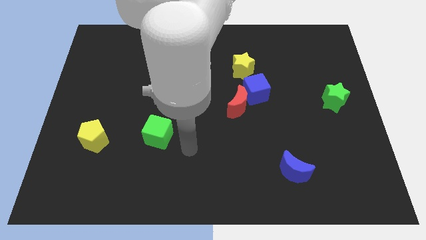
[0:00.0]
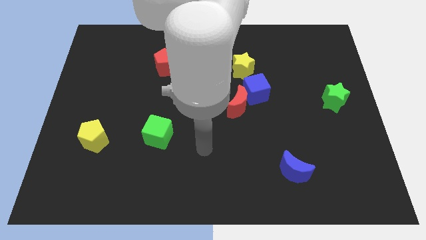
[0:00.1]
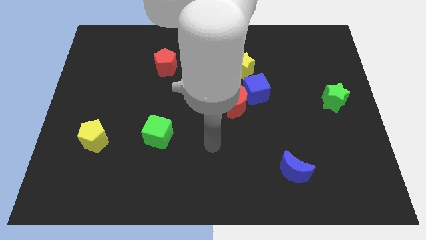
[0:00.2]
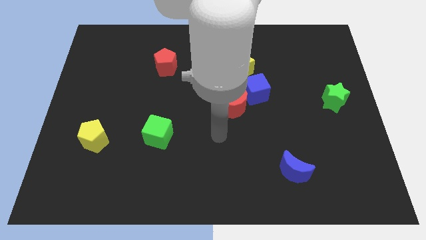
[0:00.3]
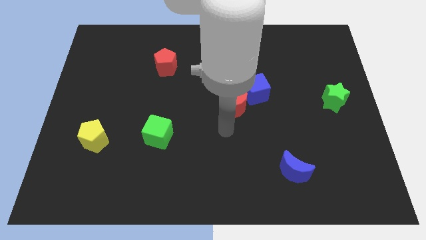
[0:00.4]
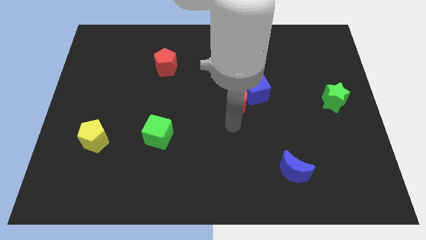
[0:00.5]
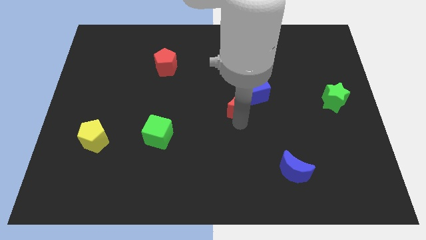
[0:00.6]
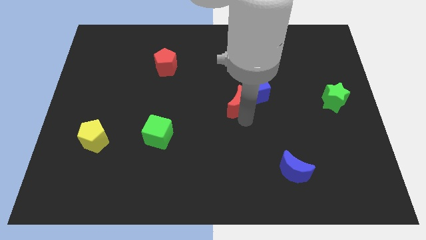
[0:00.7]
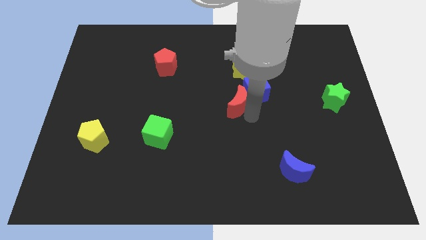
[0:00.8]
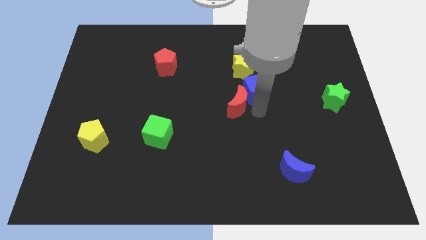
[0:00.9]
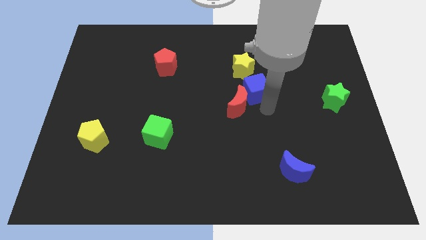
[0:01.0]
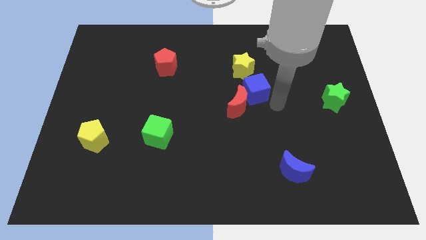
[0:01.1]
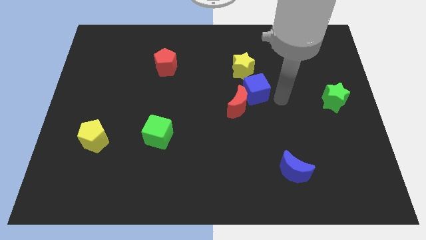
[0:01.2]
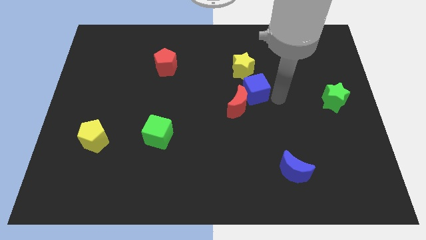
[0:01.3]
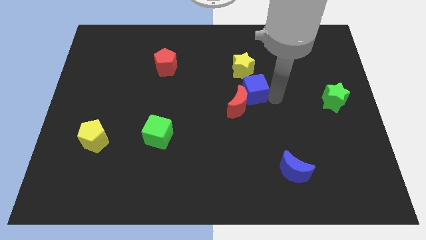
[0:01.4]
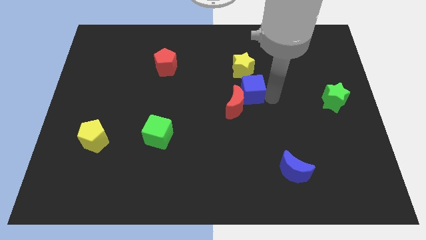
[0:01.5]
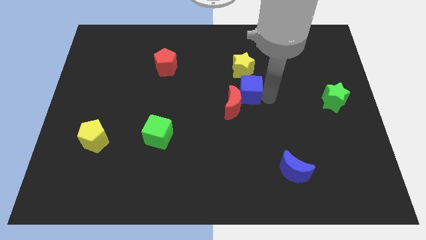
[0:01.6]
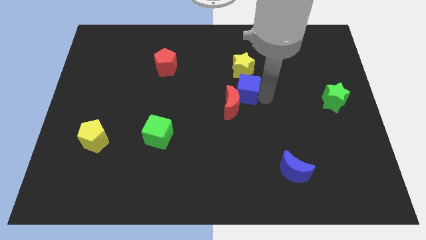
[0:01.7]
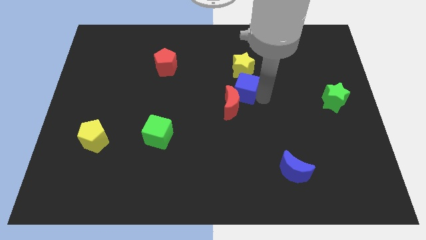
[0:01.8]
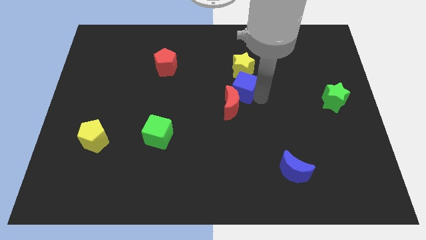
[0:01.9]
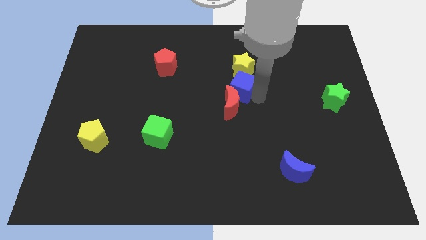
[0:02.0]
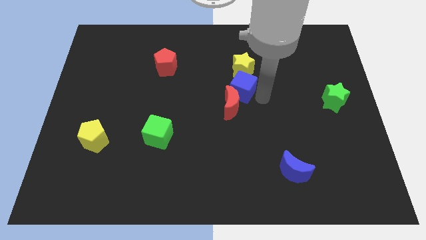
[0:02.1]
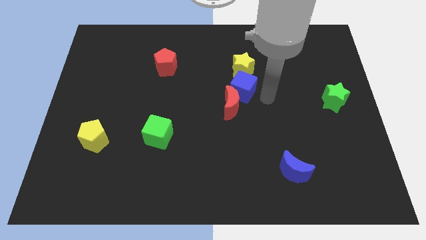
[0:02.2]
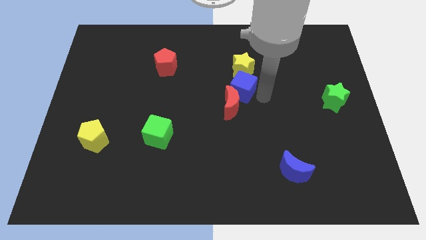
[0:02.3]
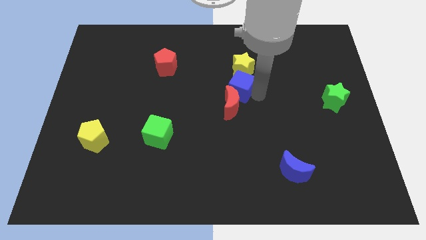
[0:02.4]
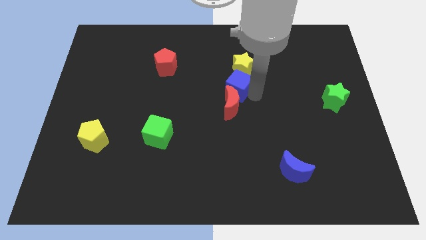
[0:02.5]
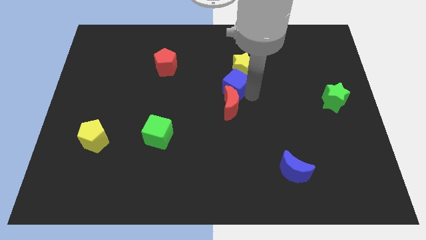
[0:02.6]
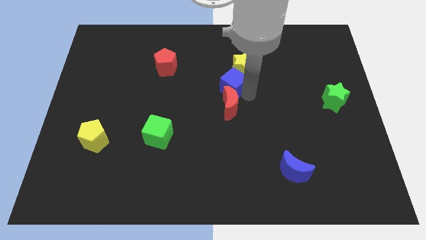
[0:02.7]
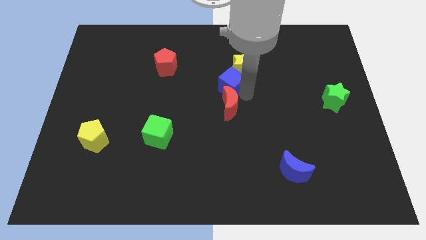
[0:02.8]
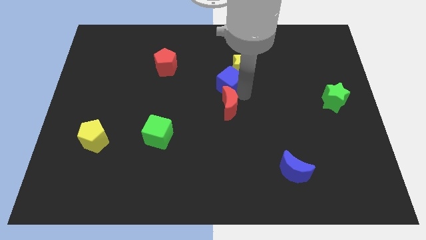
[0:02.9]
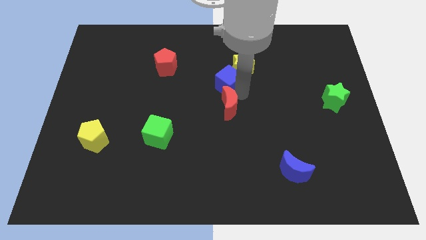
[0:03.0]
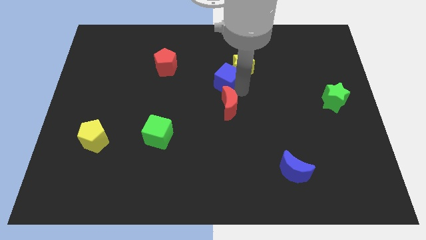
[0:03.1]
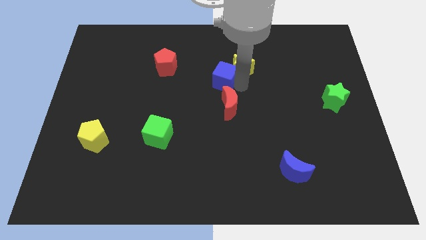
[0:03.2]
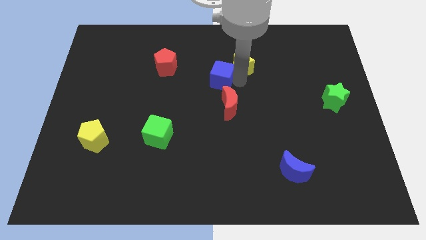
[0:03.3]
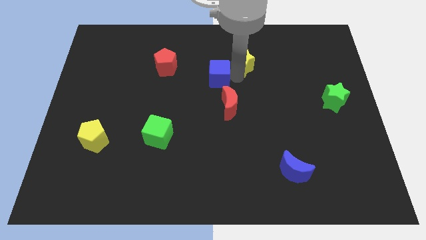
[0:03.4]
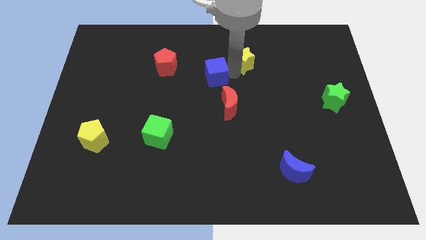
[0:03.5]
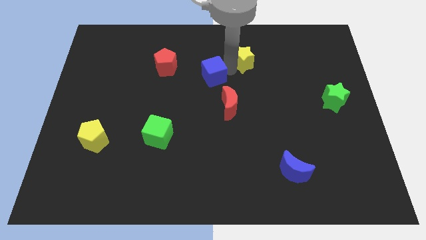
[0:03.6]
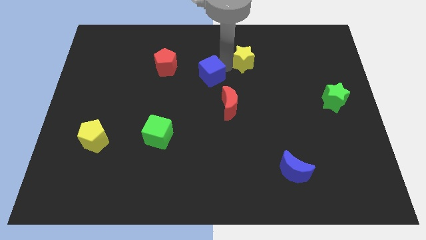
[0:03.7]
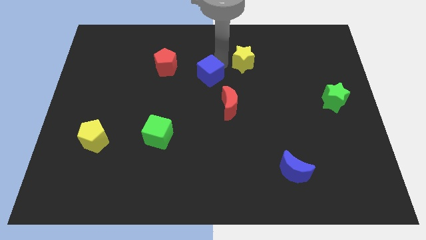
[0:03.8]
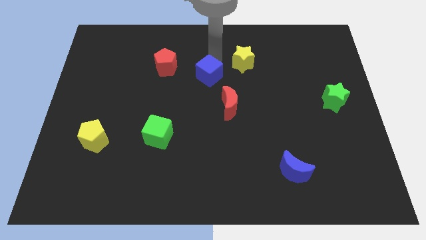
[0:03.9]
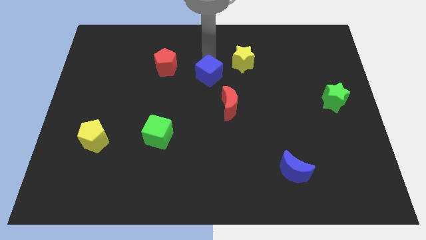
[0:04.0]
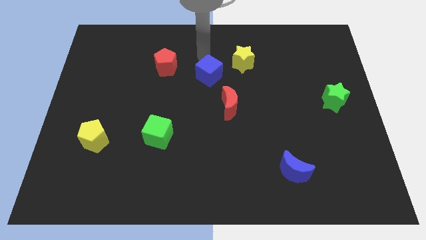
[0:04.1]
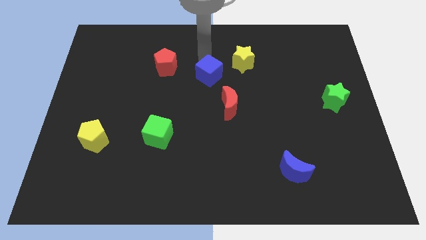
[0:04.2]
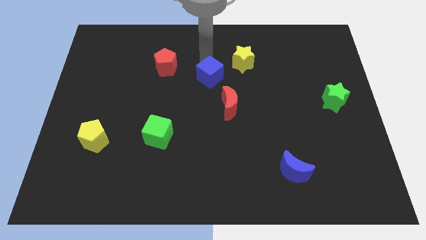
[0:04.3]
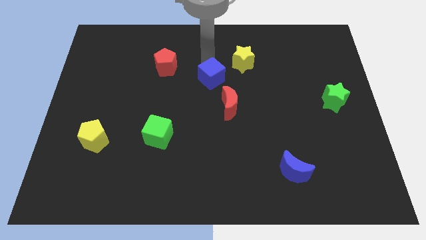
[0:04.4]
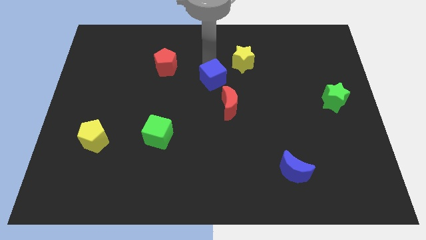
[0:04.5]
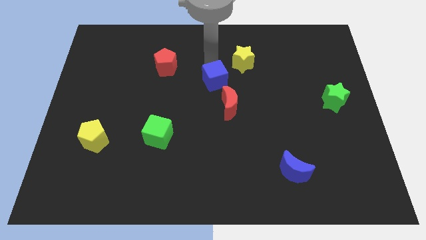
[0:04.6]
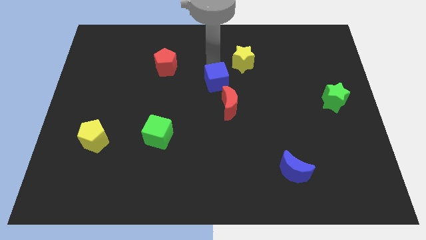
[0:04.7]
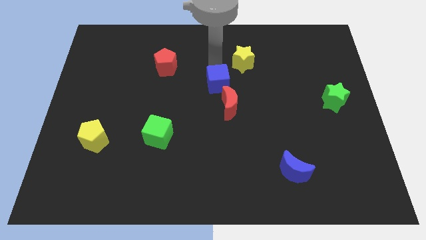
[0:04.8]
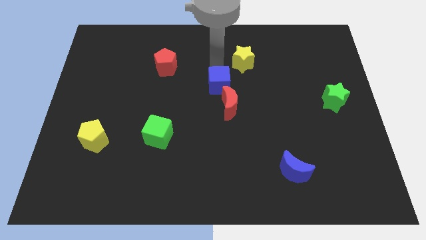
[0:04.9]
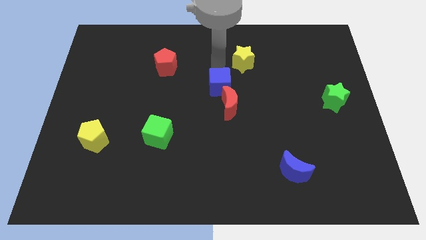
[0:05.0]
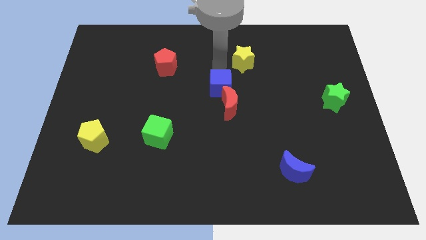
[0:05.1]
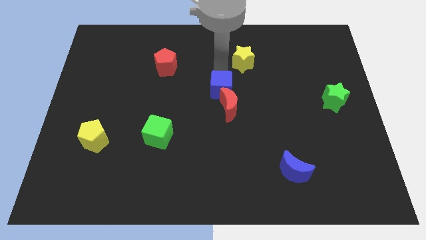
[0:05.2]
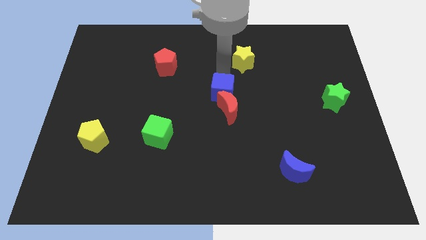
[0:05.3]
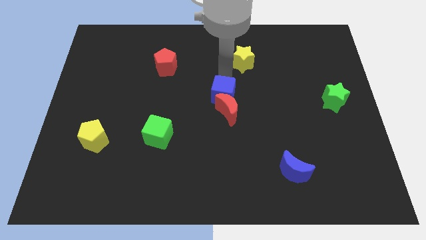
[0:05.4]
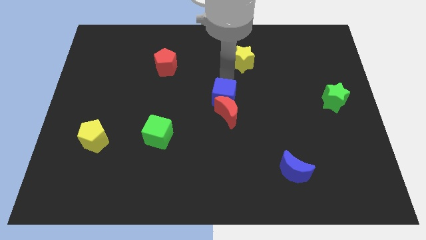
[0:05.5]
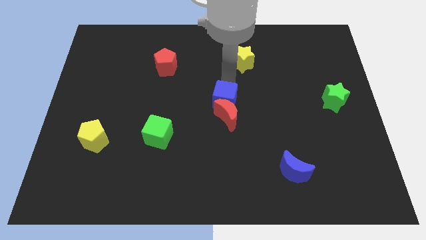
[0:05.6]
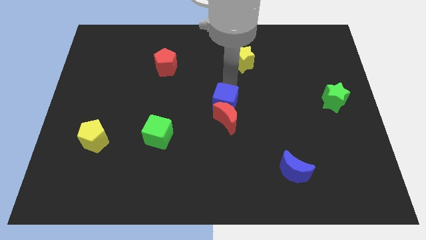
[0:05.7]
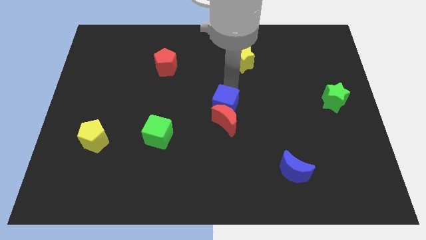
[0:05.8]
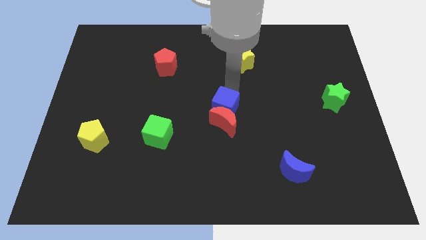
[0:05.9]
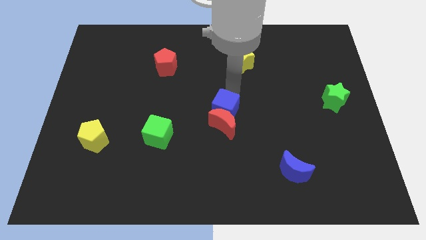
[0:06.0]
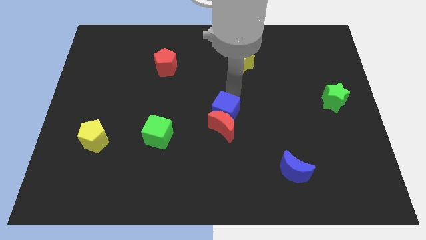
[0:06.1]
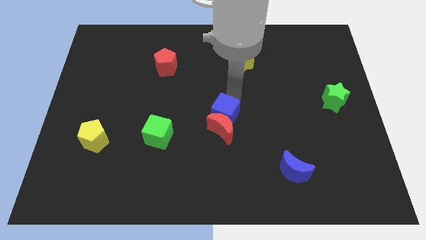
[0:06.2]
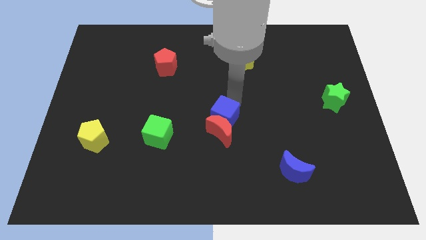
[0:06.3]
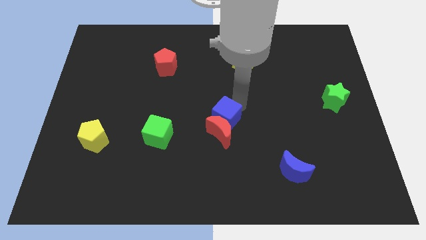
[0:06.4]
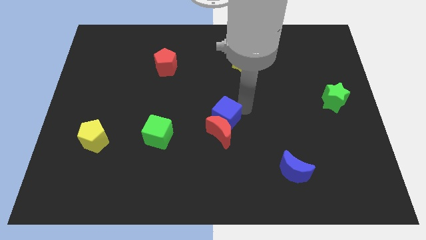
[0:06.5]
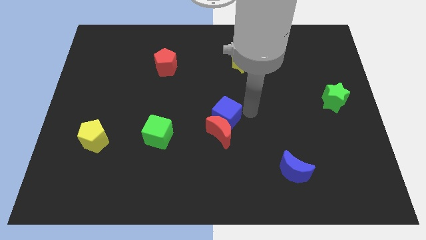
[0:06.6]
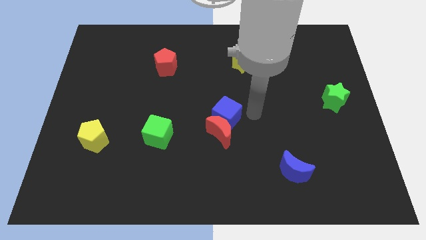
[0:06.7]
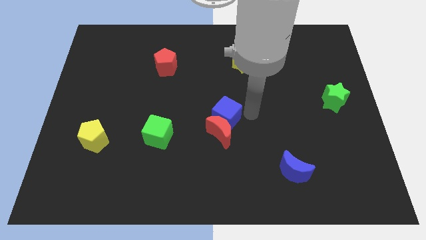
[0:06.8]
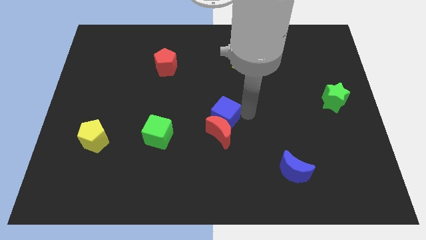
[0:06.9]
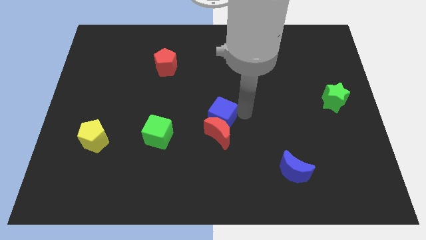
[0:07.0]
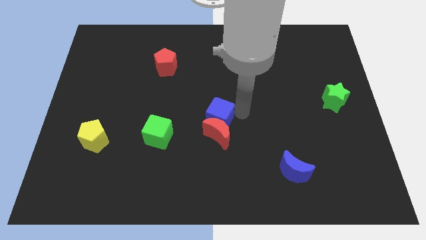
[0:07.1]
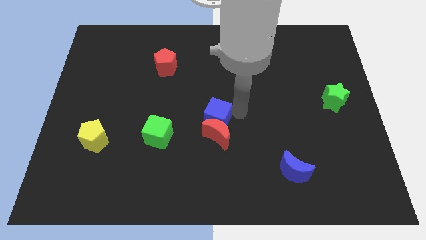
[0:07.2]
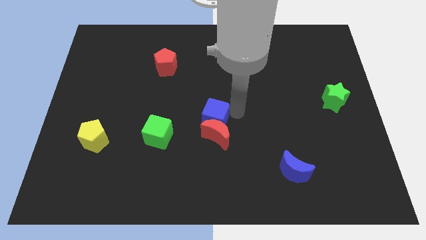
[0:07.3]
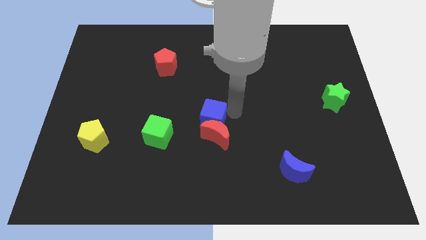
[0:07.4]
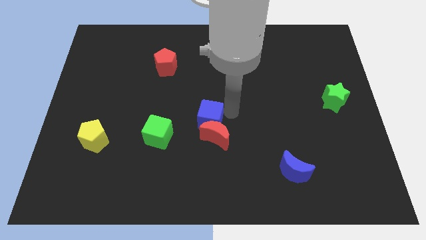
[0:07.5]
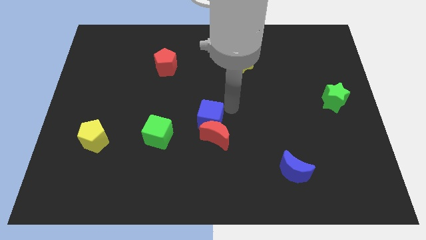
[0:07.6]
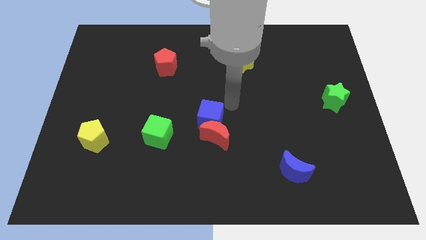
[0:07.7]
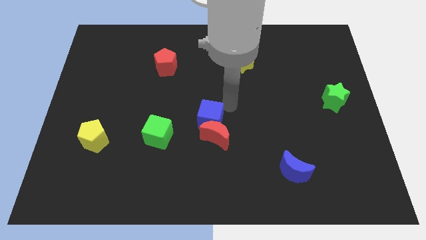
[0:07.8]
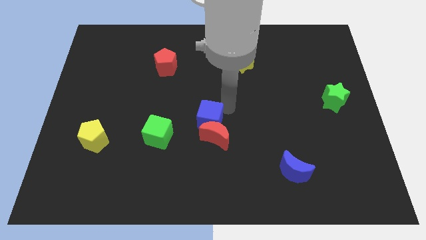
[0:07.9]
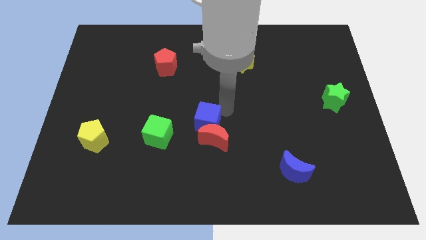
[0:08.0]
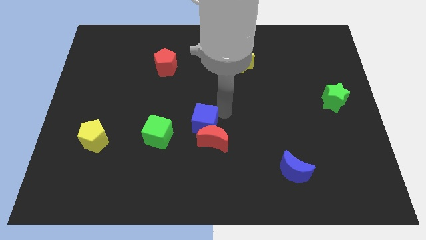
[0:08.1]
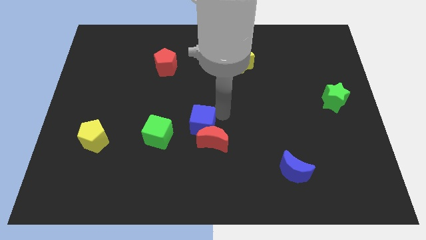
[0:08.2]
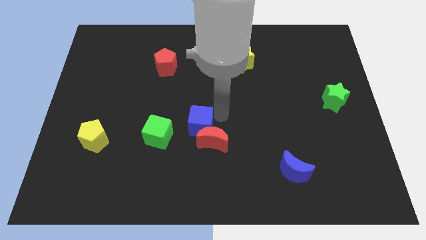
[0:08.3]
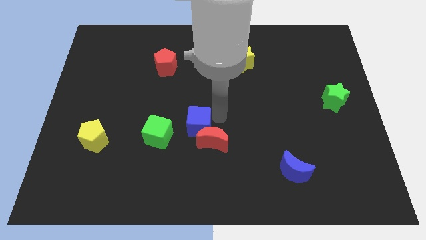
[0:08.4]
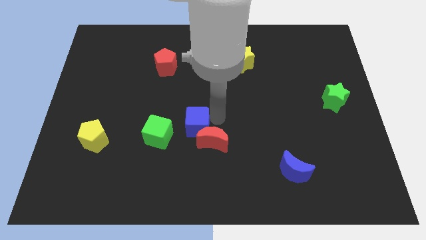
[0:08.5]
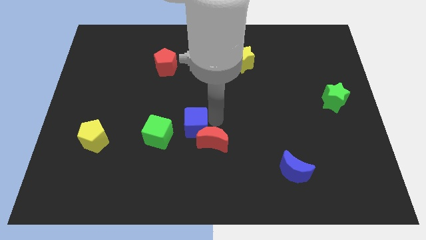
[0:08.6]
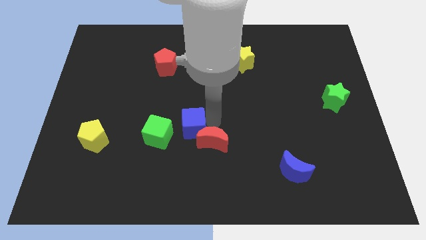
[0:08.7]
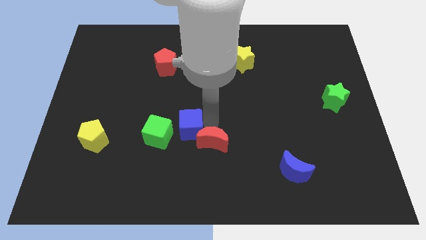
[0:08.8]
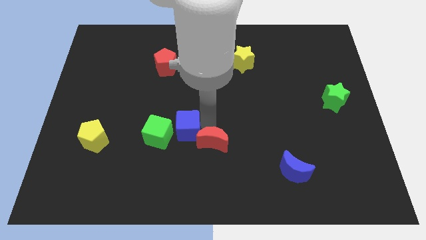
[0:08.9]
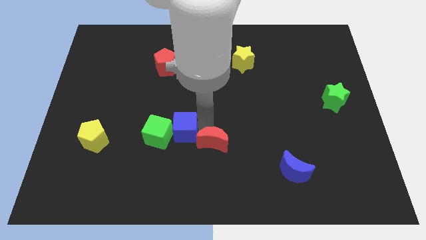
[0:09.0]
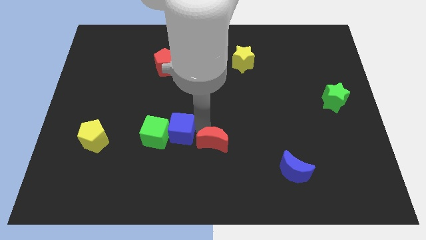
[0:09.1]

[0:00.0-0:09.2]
slide the blue cube downwards and then left
